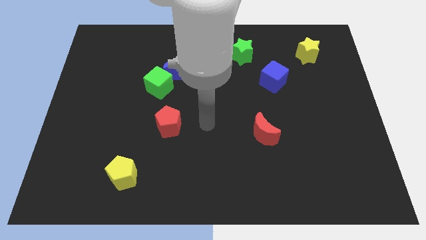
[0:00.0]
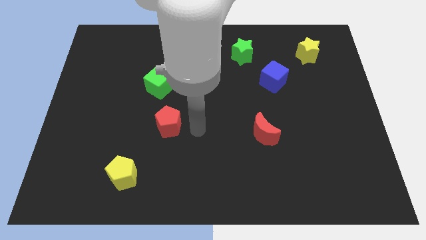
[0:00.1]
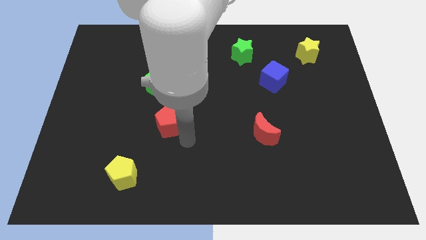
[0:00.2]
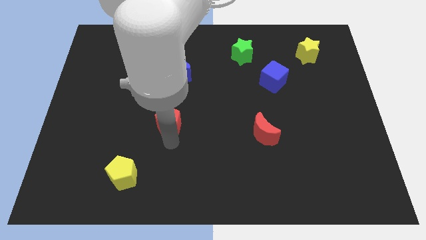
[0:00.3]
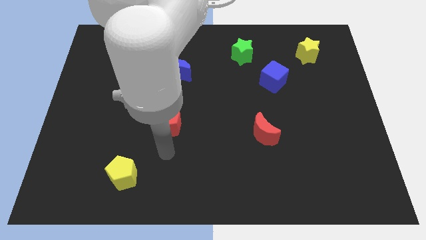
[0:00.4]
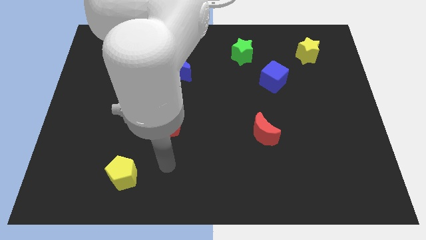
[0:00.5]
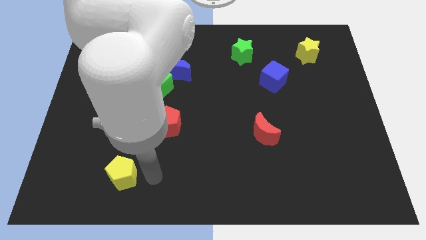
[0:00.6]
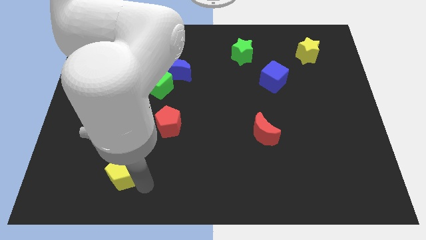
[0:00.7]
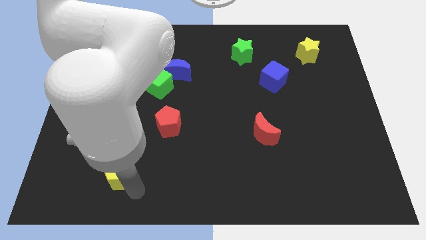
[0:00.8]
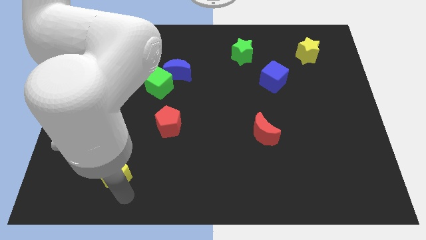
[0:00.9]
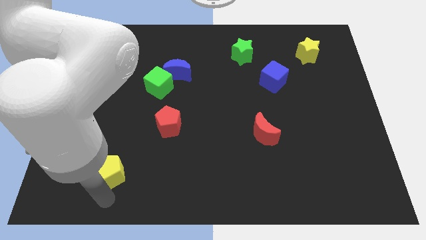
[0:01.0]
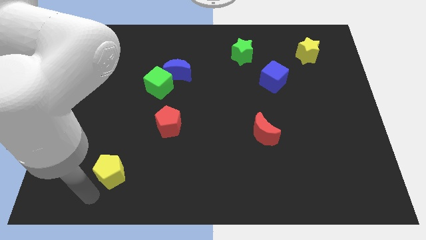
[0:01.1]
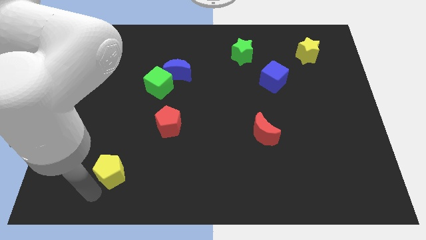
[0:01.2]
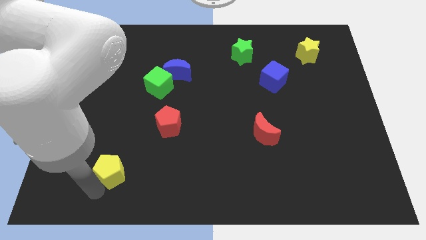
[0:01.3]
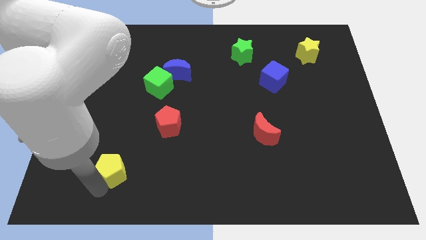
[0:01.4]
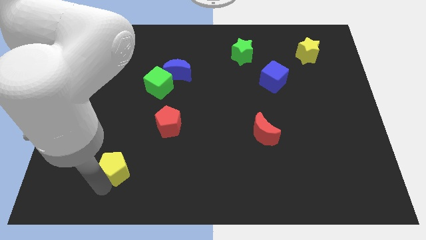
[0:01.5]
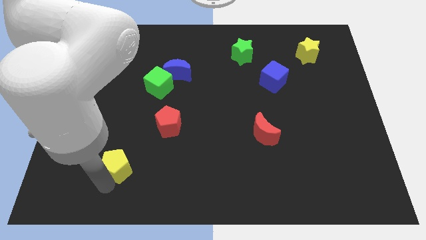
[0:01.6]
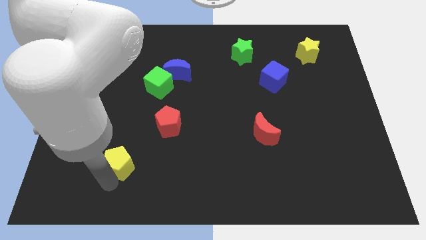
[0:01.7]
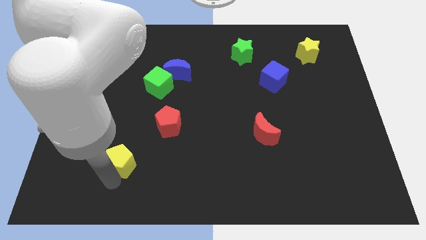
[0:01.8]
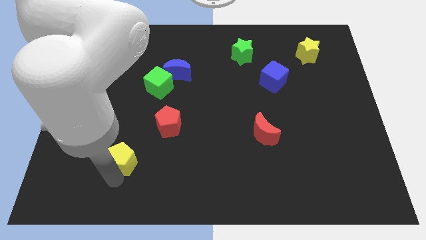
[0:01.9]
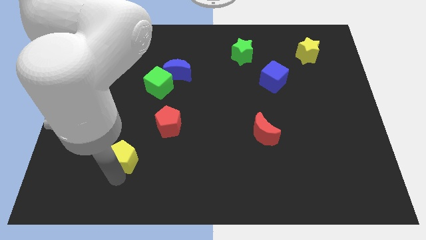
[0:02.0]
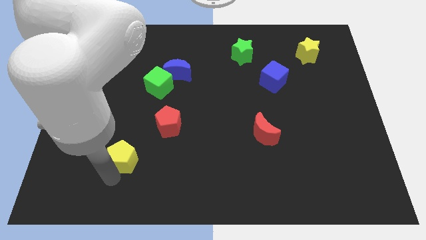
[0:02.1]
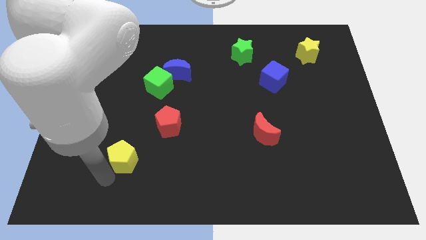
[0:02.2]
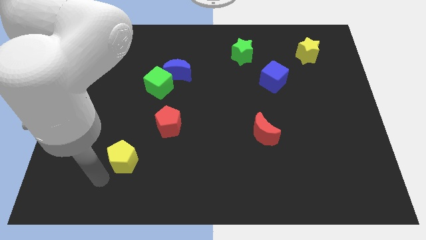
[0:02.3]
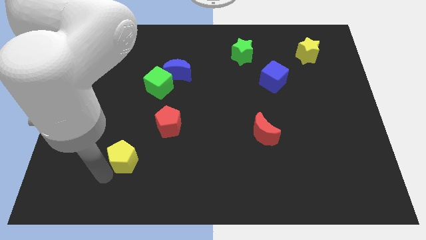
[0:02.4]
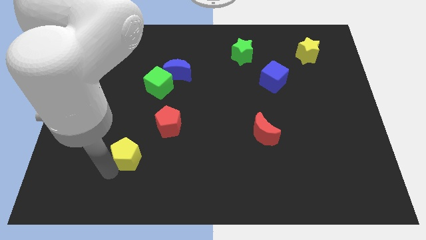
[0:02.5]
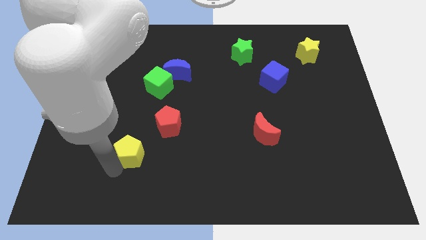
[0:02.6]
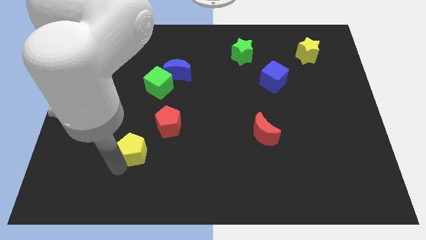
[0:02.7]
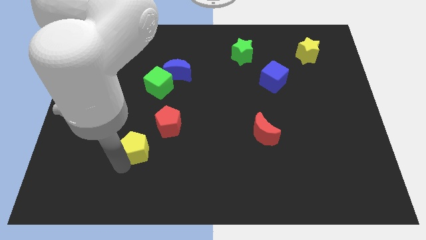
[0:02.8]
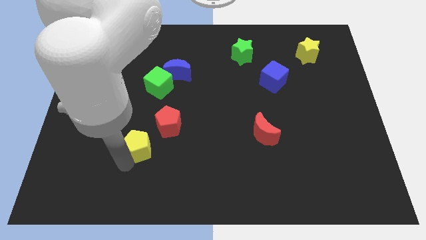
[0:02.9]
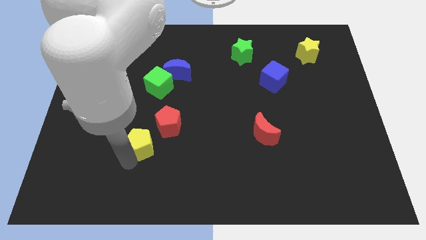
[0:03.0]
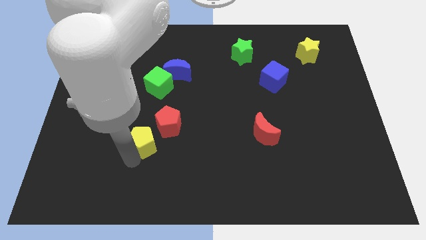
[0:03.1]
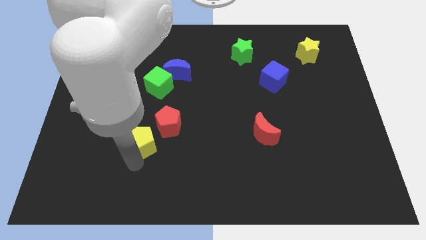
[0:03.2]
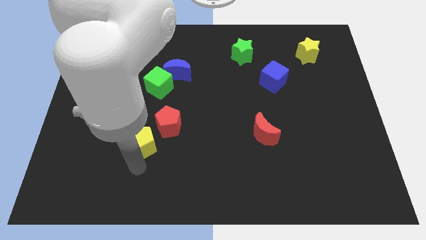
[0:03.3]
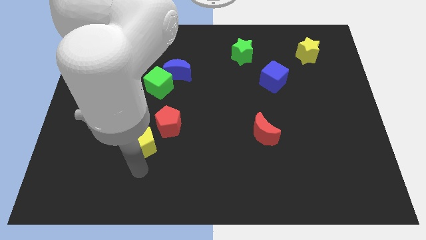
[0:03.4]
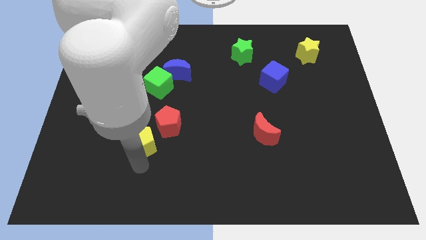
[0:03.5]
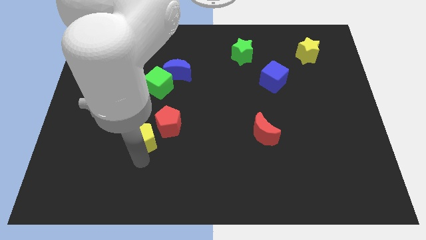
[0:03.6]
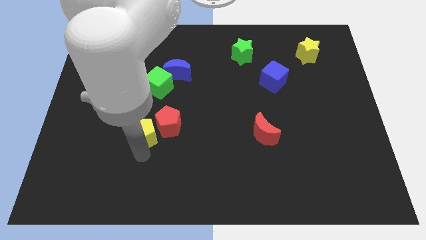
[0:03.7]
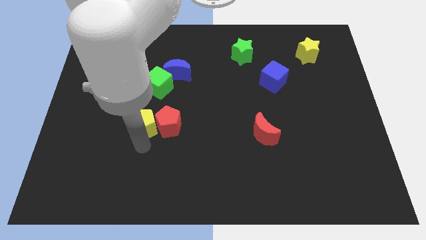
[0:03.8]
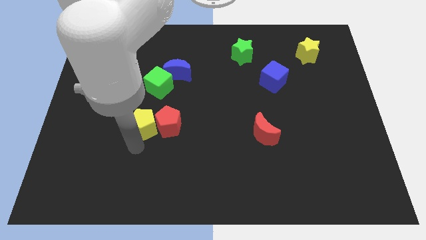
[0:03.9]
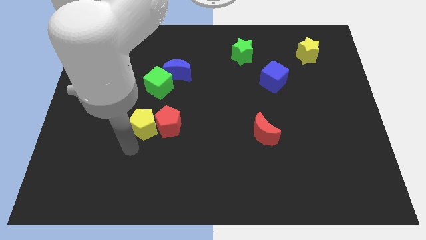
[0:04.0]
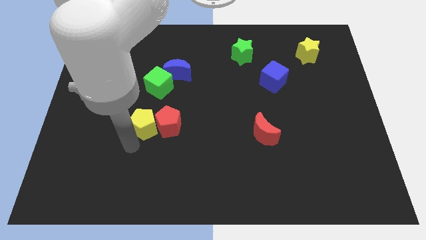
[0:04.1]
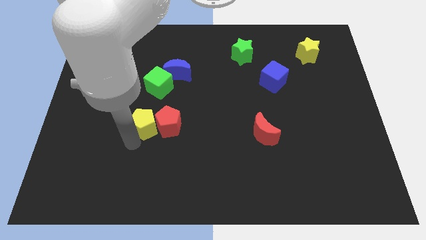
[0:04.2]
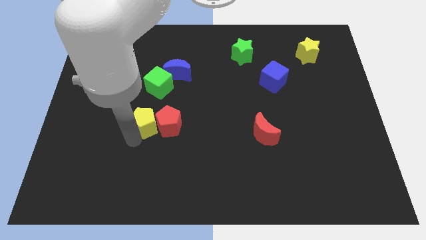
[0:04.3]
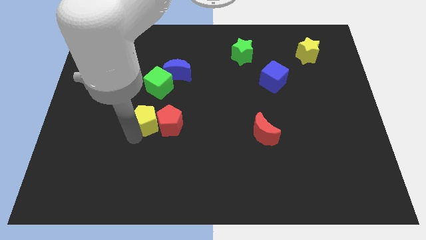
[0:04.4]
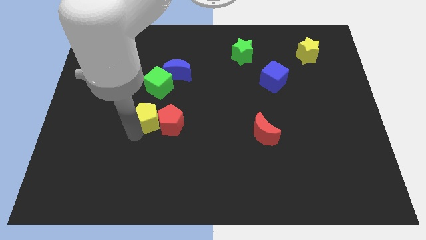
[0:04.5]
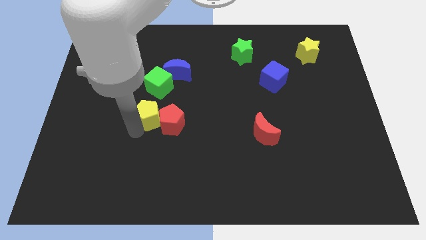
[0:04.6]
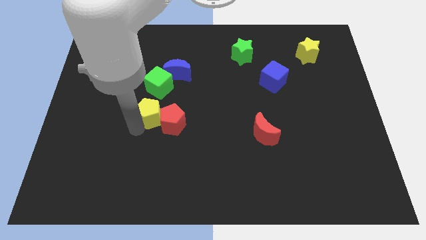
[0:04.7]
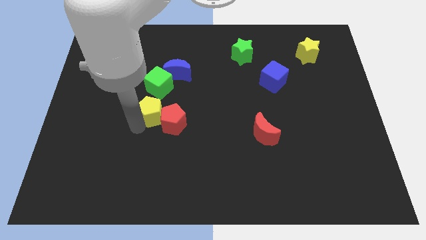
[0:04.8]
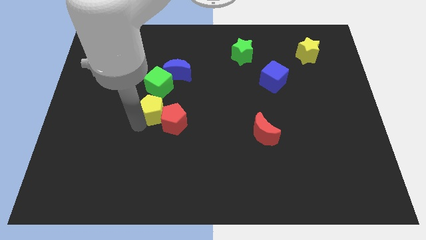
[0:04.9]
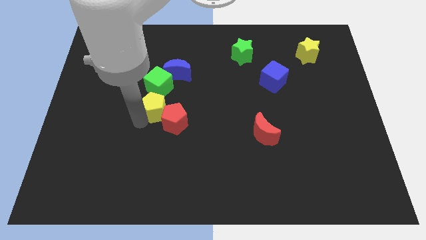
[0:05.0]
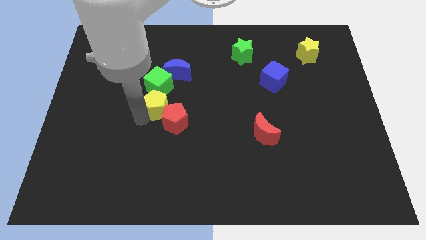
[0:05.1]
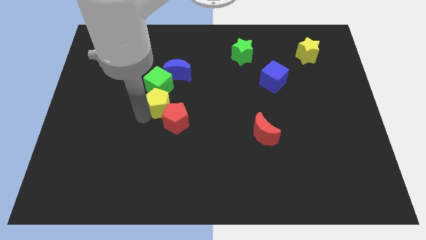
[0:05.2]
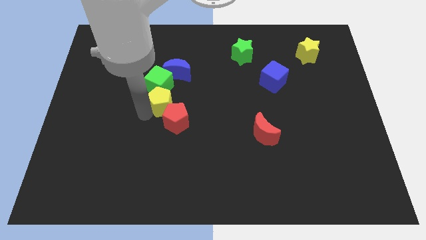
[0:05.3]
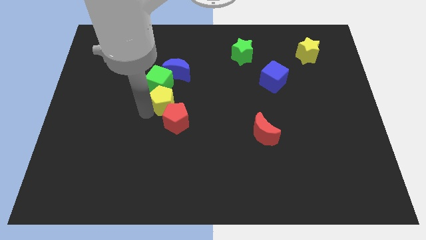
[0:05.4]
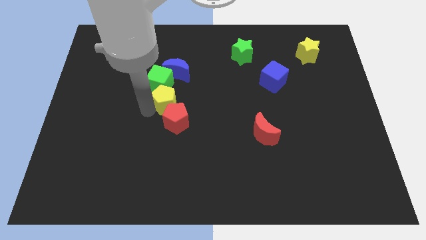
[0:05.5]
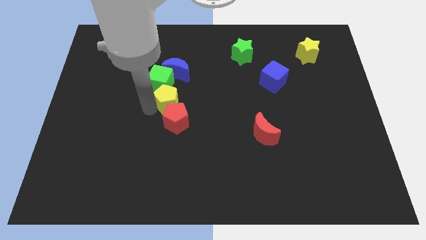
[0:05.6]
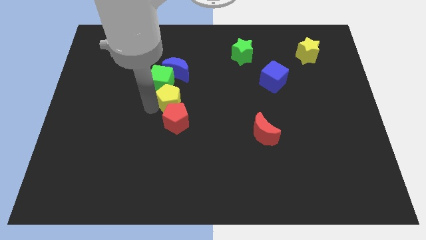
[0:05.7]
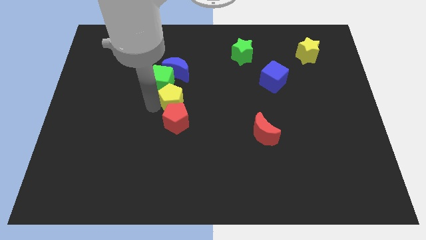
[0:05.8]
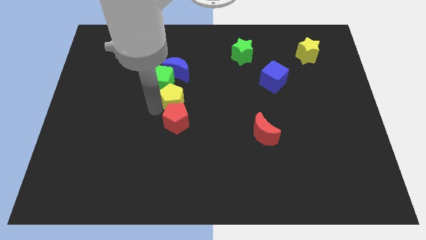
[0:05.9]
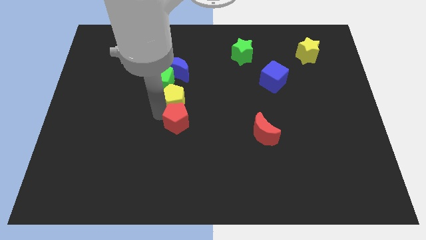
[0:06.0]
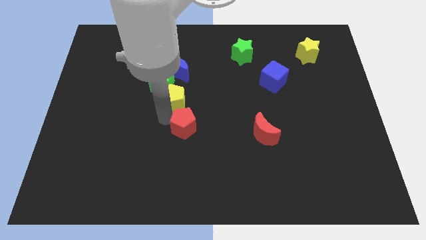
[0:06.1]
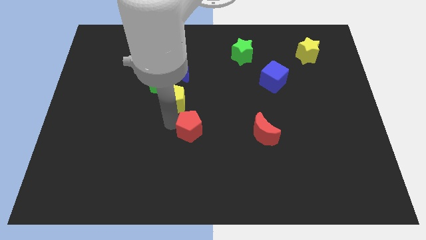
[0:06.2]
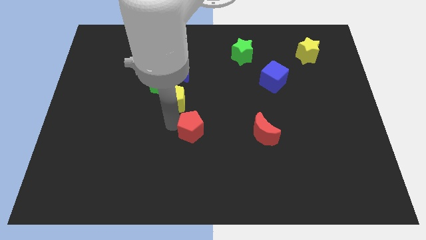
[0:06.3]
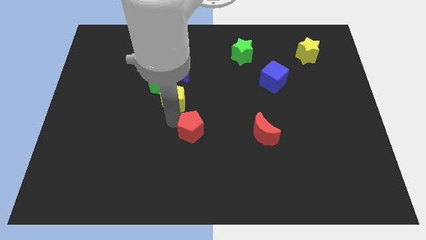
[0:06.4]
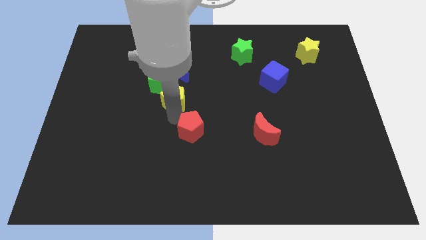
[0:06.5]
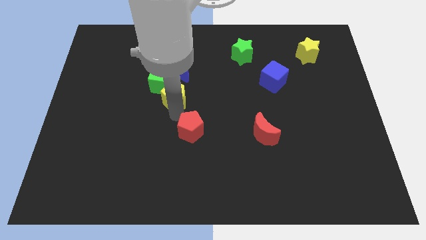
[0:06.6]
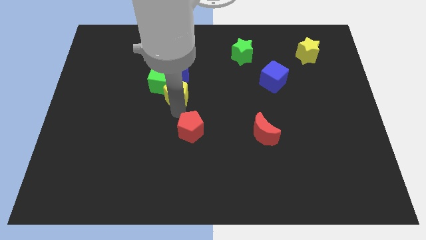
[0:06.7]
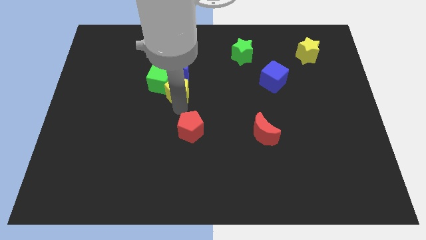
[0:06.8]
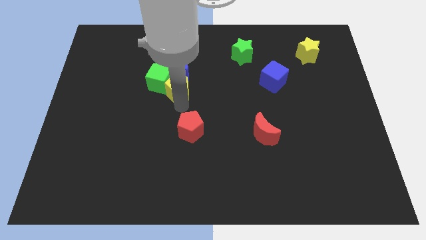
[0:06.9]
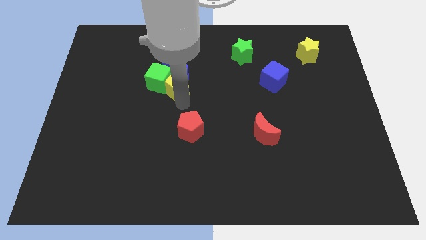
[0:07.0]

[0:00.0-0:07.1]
move the yellow pentagon to the blue moon

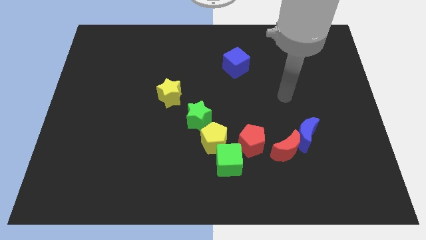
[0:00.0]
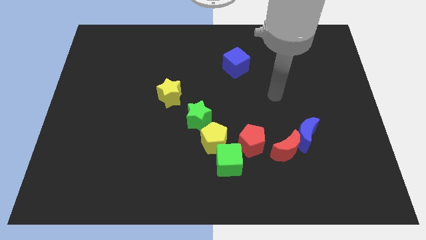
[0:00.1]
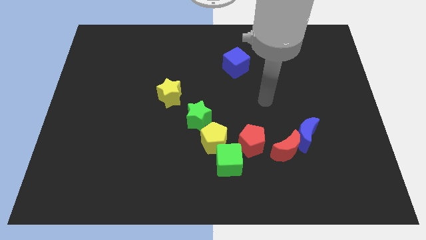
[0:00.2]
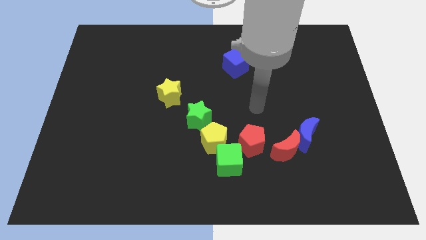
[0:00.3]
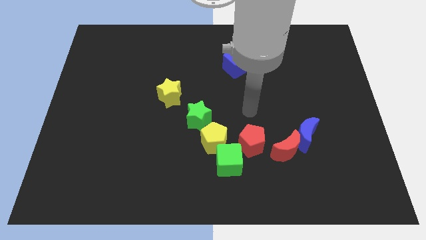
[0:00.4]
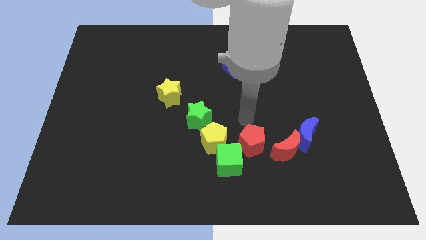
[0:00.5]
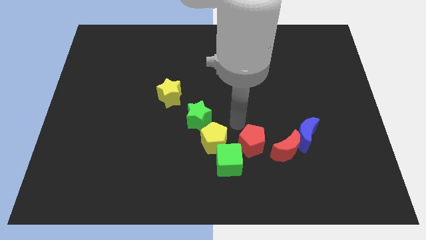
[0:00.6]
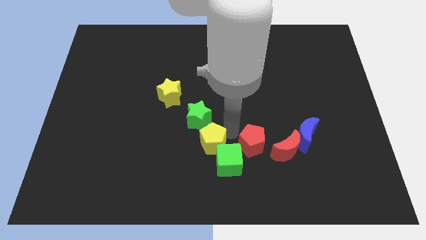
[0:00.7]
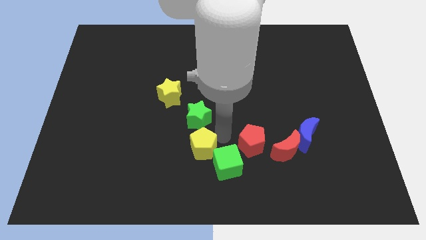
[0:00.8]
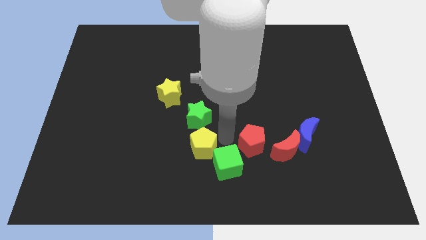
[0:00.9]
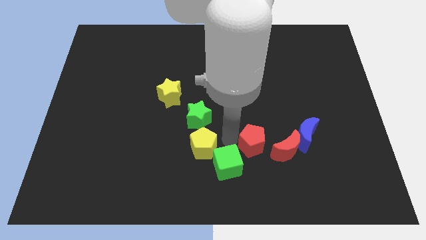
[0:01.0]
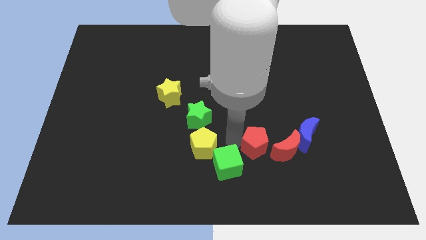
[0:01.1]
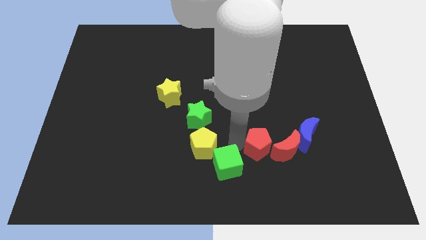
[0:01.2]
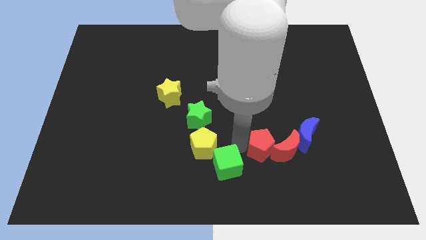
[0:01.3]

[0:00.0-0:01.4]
move the red pentagon towards the red moon
